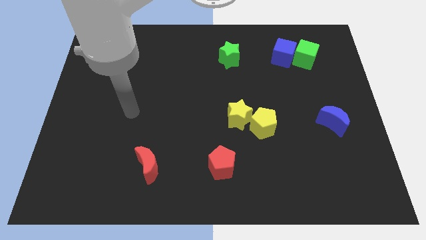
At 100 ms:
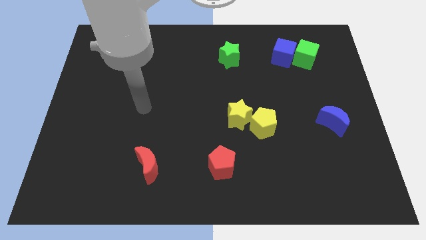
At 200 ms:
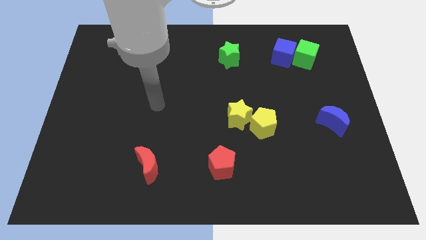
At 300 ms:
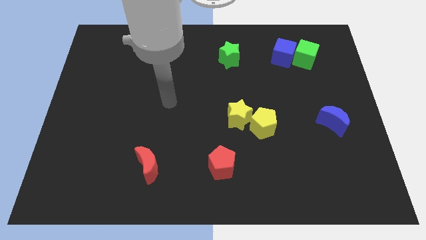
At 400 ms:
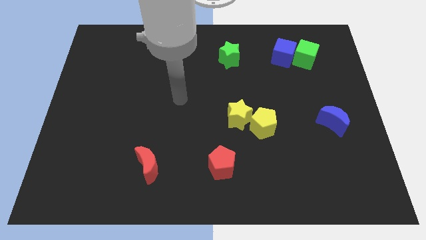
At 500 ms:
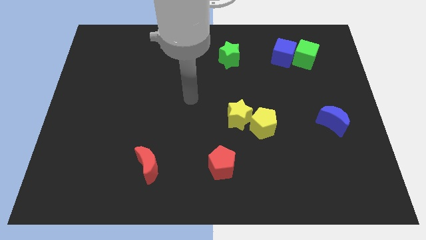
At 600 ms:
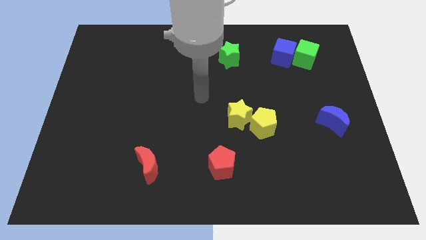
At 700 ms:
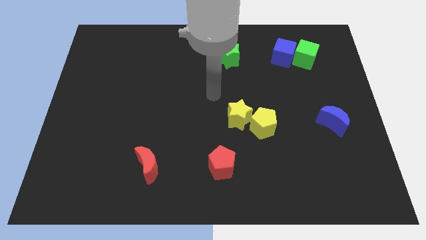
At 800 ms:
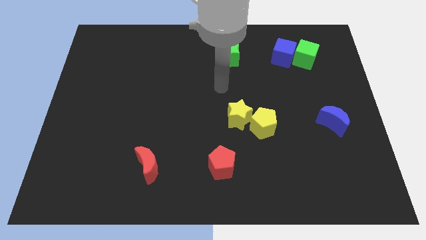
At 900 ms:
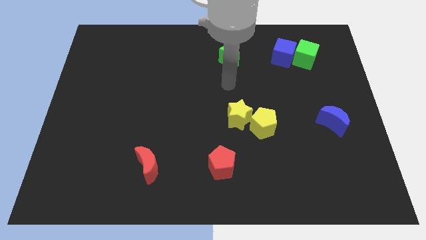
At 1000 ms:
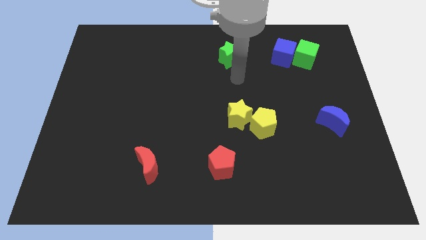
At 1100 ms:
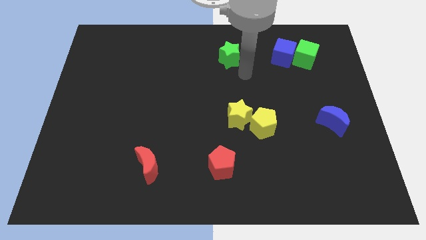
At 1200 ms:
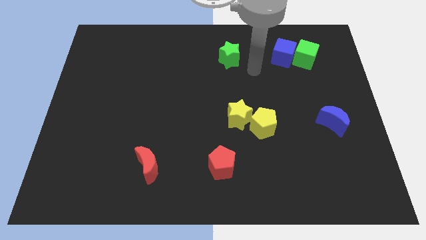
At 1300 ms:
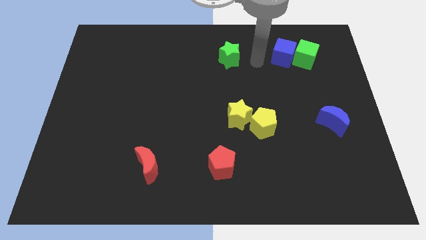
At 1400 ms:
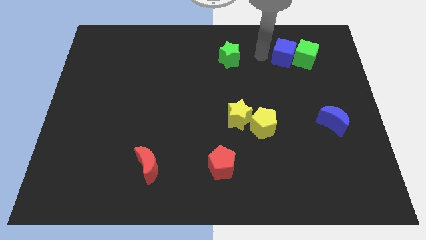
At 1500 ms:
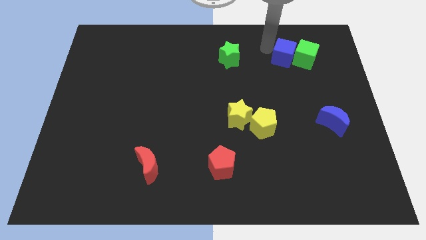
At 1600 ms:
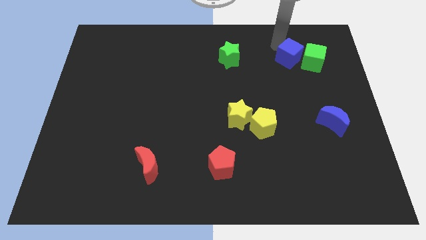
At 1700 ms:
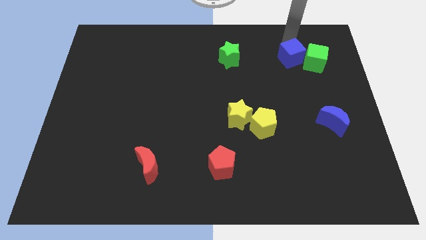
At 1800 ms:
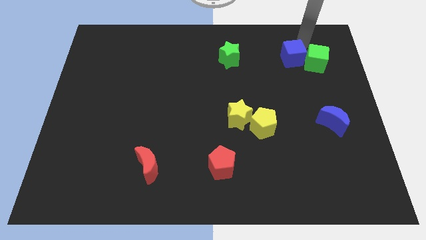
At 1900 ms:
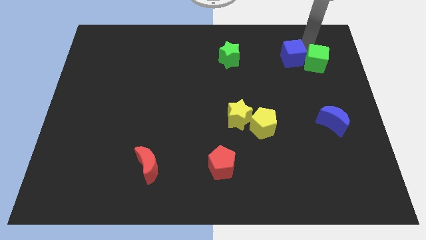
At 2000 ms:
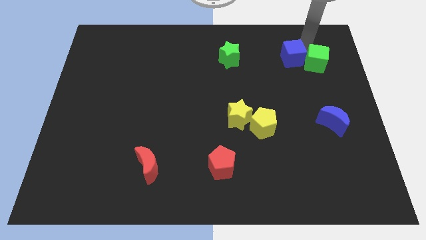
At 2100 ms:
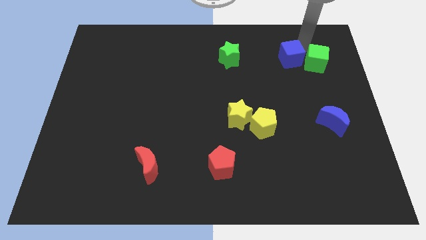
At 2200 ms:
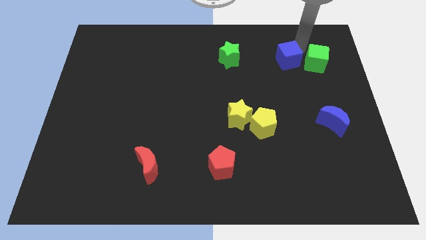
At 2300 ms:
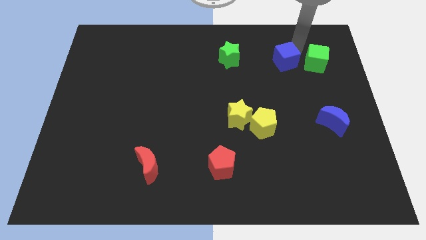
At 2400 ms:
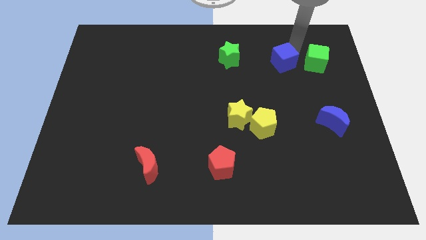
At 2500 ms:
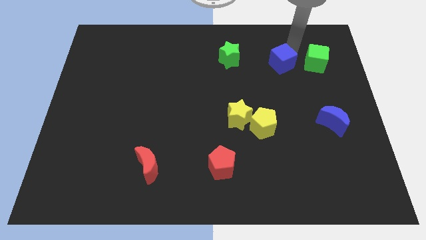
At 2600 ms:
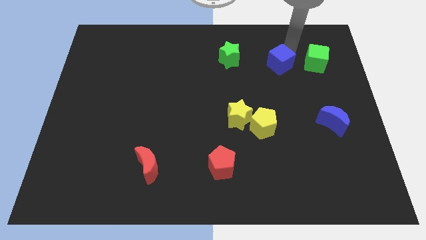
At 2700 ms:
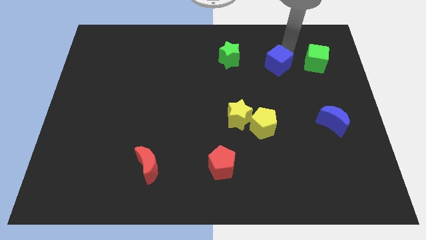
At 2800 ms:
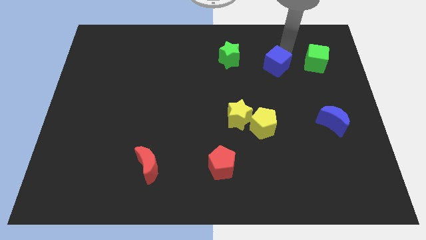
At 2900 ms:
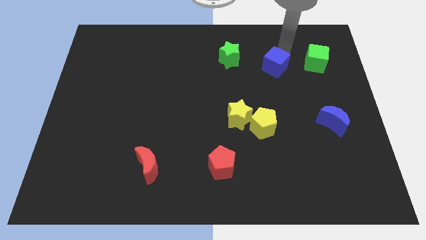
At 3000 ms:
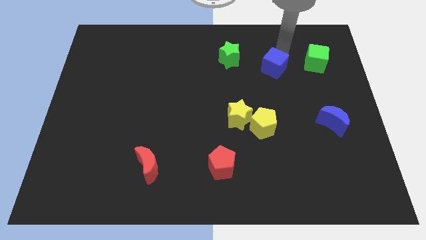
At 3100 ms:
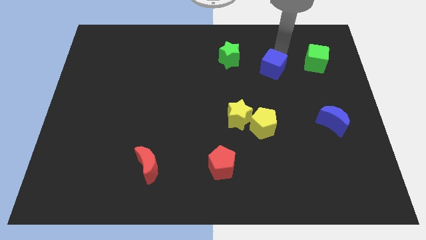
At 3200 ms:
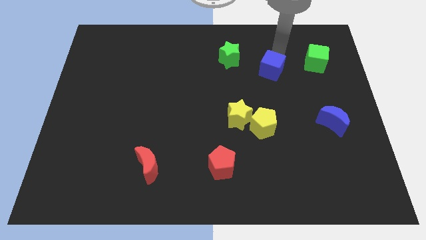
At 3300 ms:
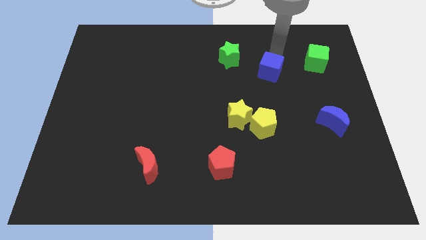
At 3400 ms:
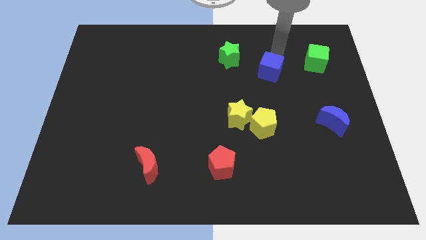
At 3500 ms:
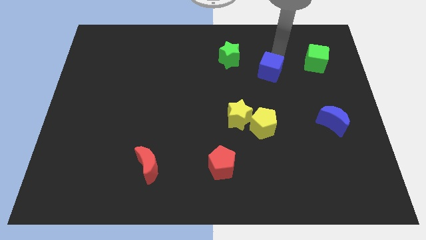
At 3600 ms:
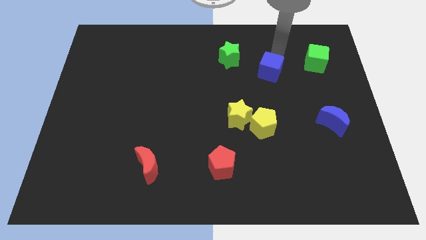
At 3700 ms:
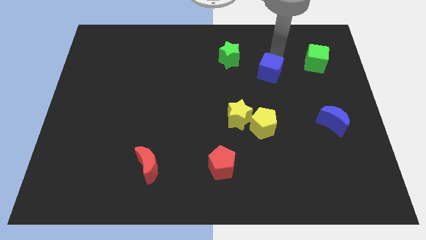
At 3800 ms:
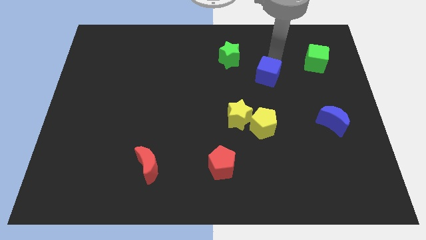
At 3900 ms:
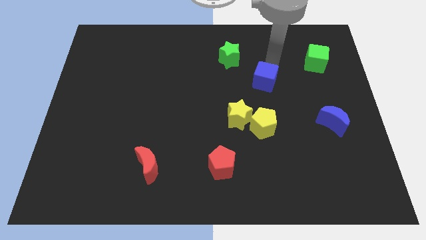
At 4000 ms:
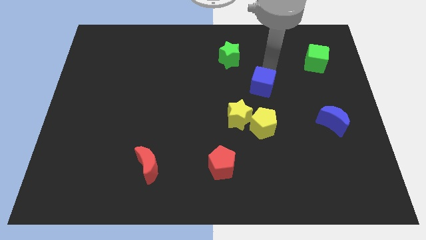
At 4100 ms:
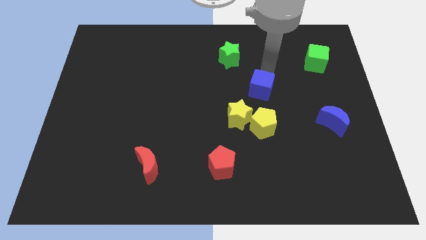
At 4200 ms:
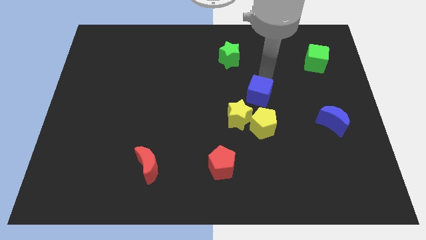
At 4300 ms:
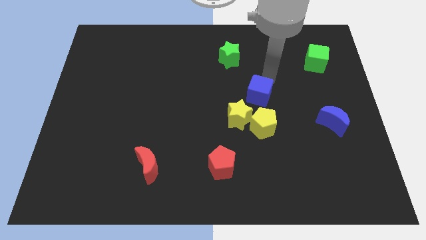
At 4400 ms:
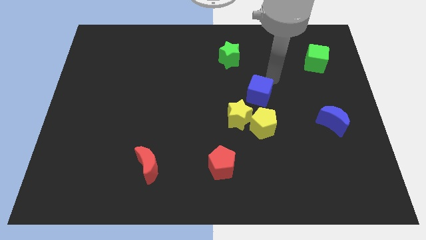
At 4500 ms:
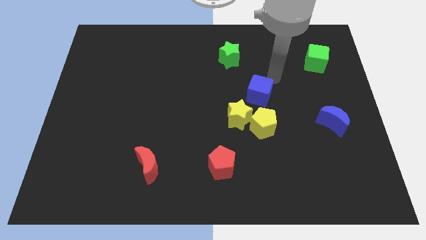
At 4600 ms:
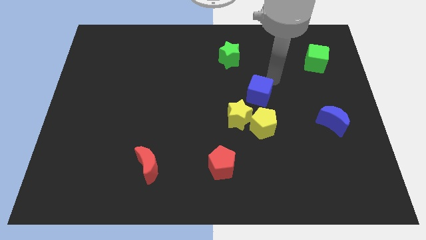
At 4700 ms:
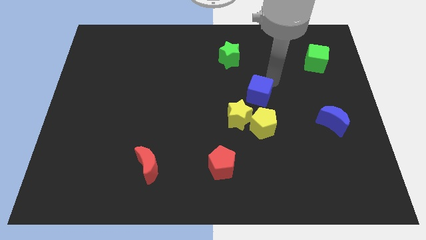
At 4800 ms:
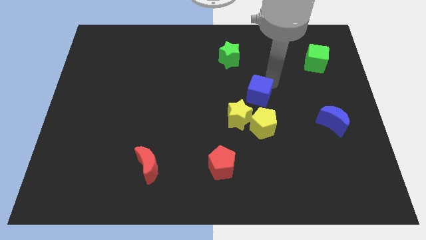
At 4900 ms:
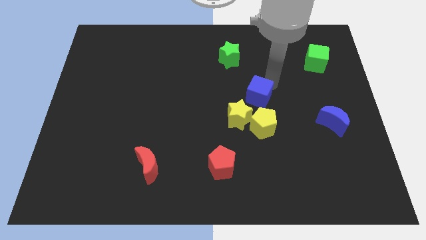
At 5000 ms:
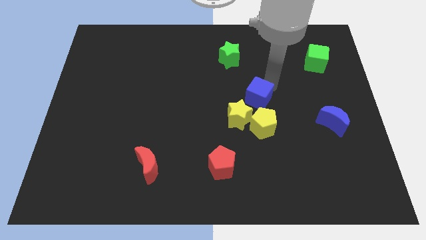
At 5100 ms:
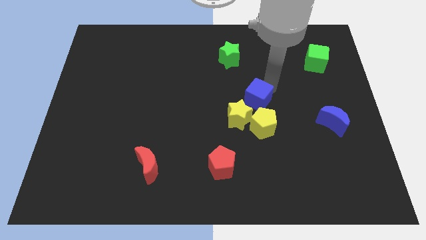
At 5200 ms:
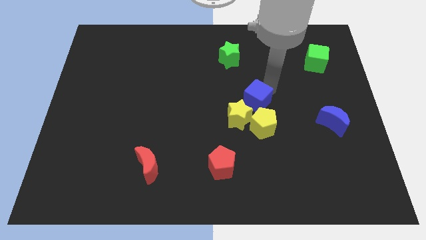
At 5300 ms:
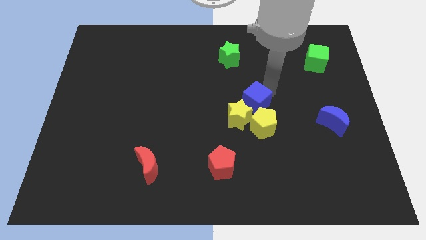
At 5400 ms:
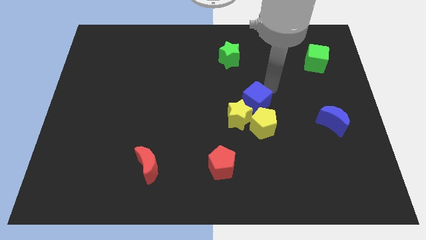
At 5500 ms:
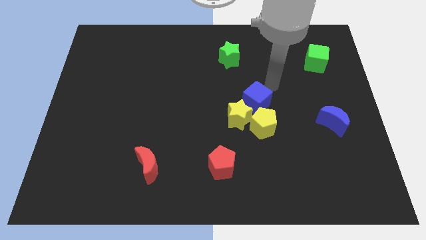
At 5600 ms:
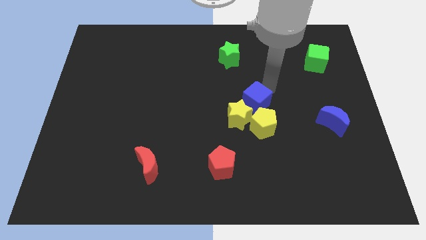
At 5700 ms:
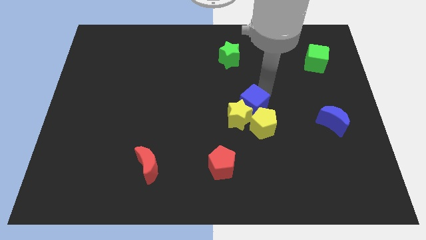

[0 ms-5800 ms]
put the blue cube next to the yellow star

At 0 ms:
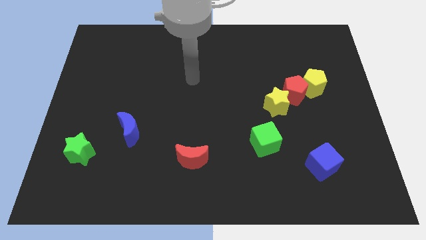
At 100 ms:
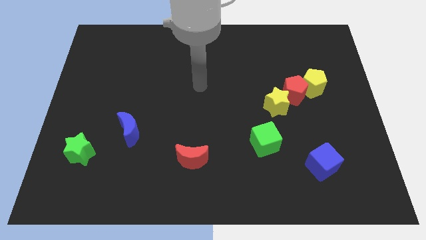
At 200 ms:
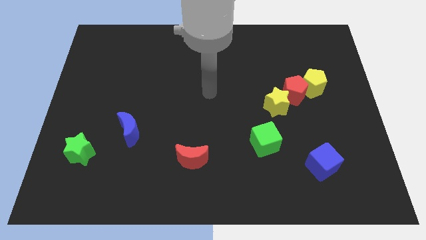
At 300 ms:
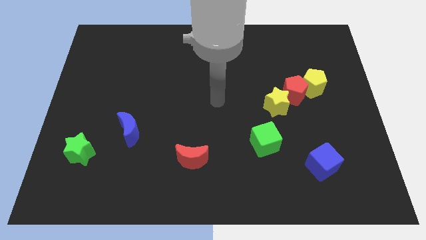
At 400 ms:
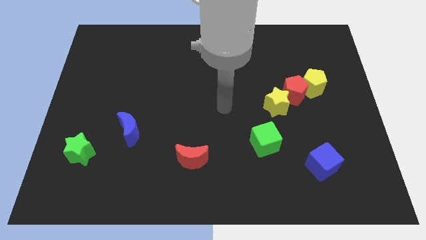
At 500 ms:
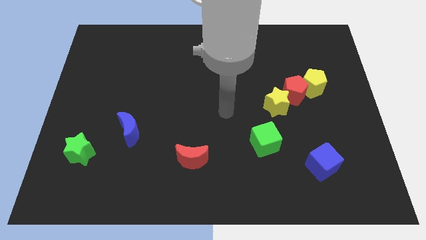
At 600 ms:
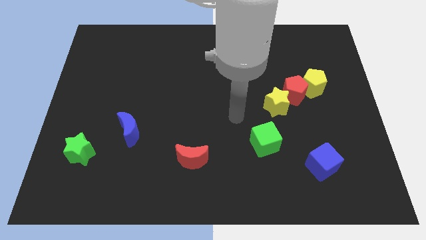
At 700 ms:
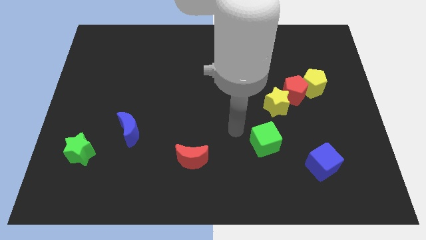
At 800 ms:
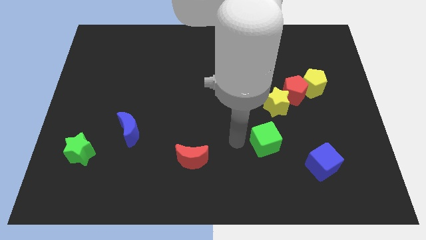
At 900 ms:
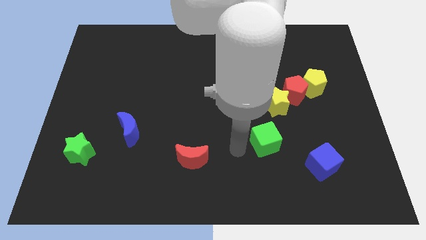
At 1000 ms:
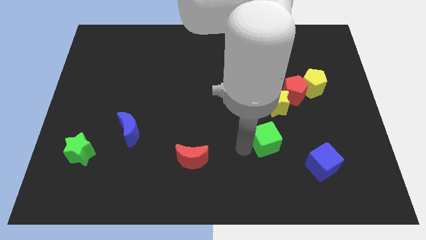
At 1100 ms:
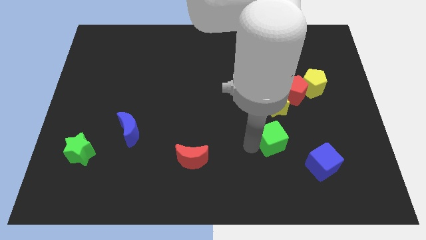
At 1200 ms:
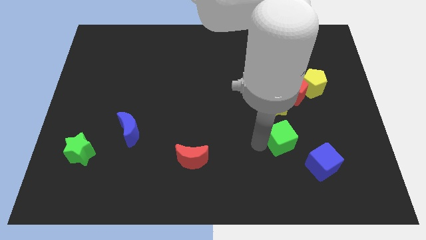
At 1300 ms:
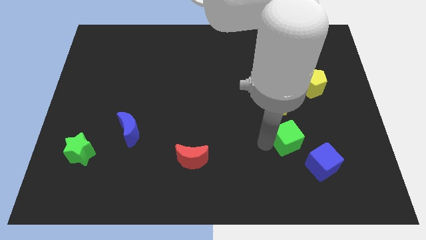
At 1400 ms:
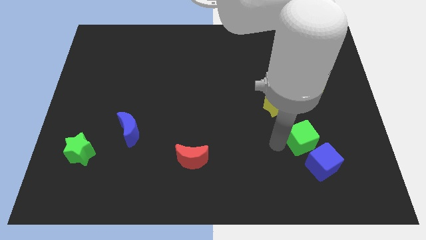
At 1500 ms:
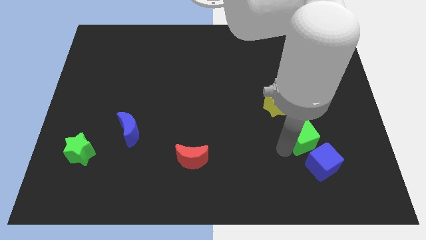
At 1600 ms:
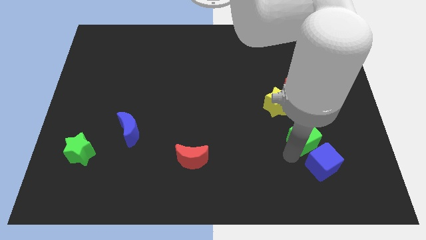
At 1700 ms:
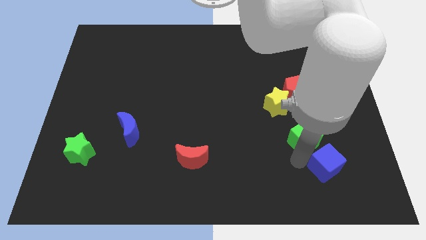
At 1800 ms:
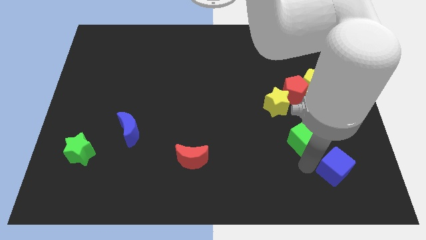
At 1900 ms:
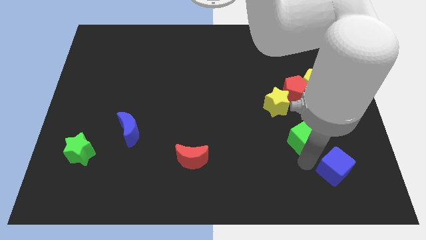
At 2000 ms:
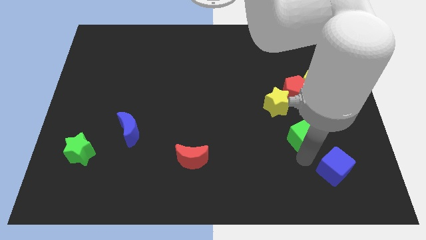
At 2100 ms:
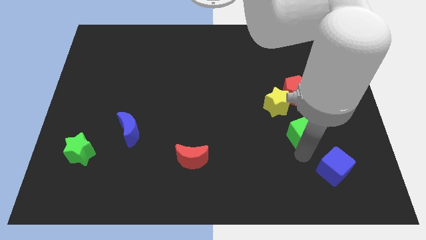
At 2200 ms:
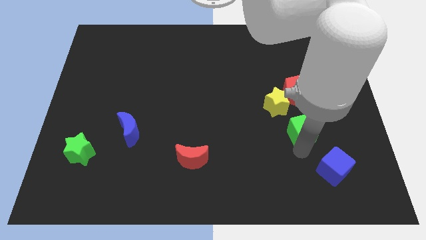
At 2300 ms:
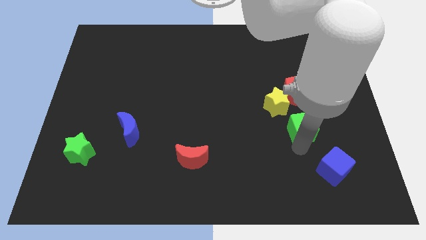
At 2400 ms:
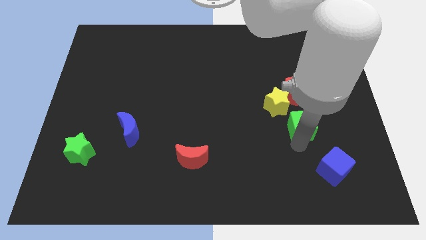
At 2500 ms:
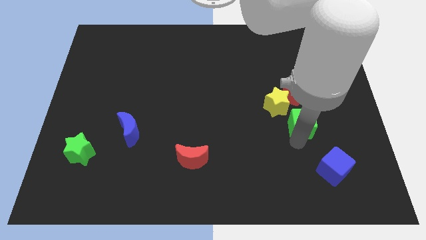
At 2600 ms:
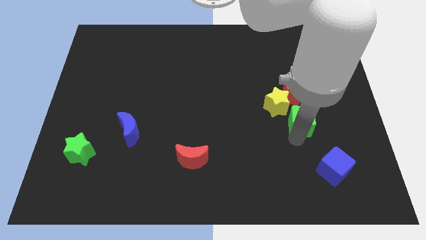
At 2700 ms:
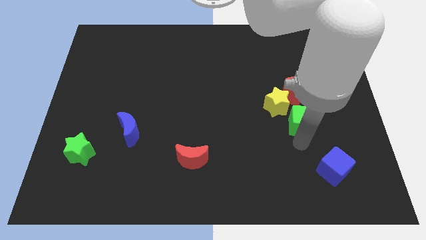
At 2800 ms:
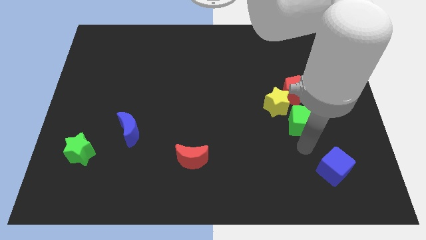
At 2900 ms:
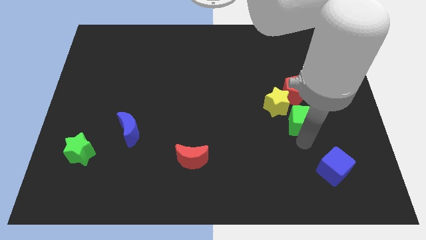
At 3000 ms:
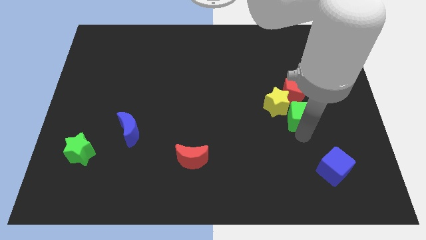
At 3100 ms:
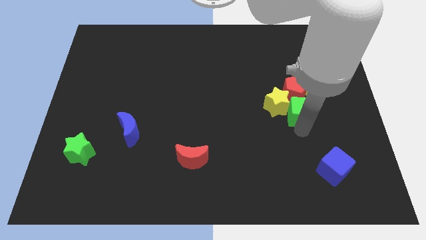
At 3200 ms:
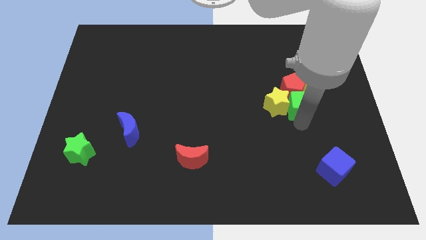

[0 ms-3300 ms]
put the green cube close to the red pentagon
